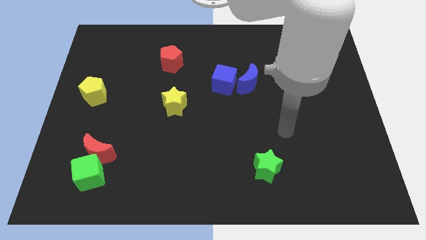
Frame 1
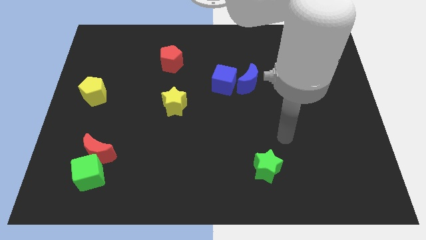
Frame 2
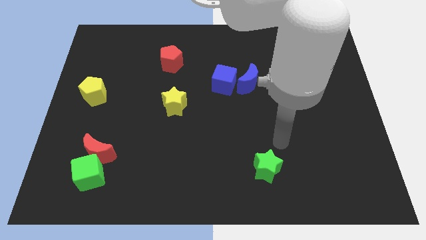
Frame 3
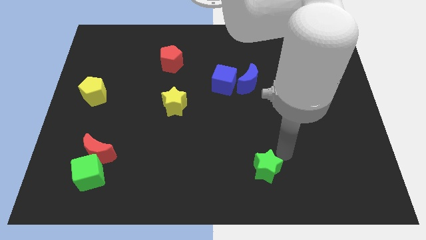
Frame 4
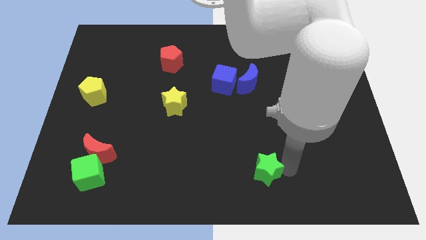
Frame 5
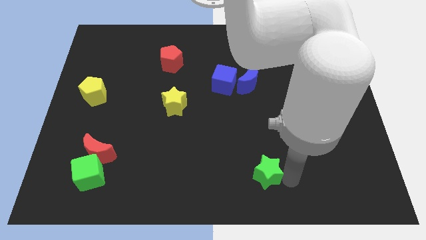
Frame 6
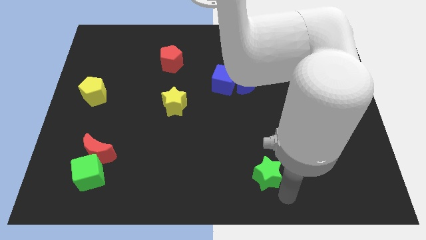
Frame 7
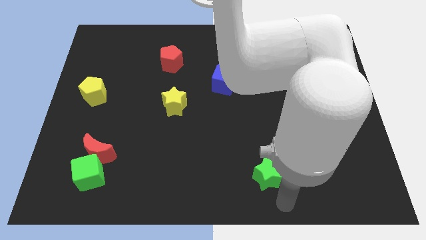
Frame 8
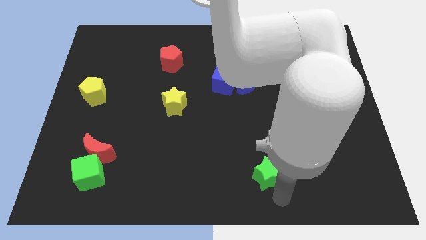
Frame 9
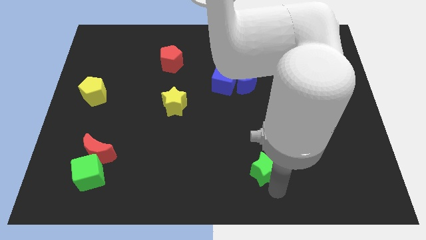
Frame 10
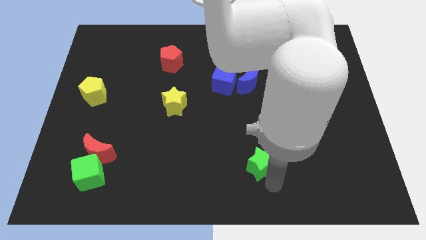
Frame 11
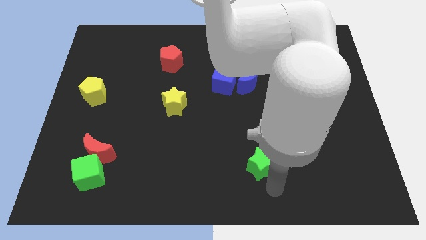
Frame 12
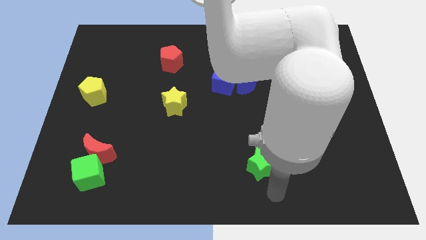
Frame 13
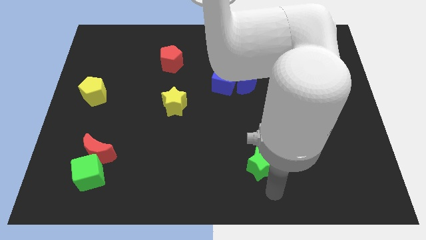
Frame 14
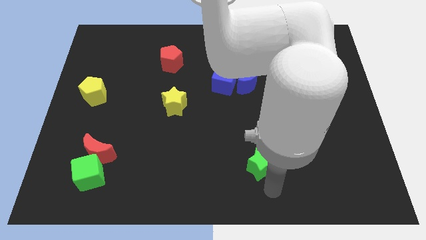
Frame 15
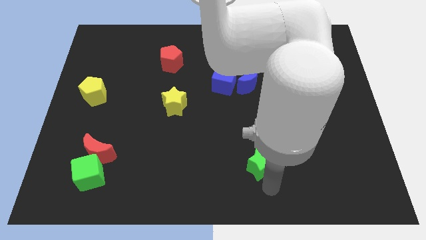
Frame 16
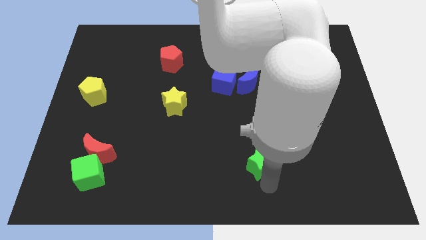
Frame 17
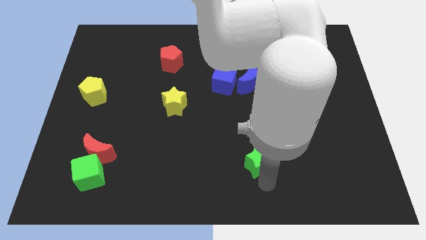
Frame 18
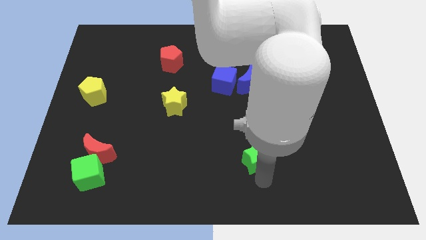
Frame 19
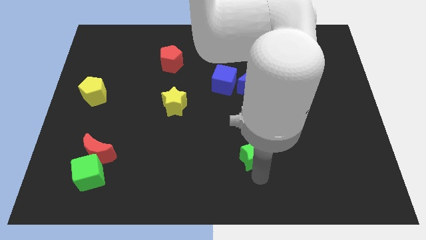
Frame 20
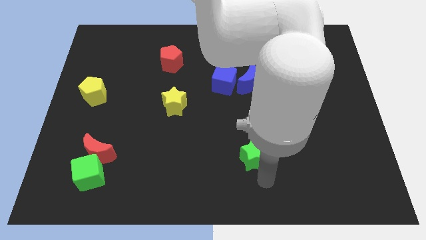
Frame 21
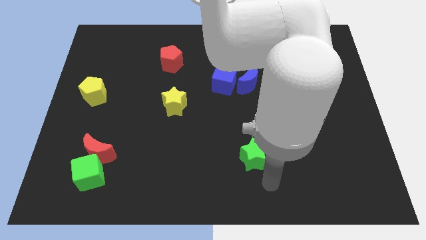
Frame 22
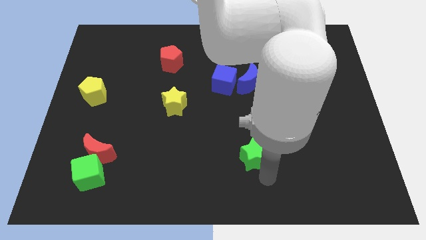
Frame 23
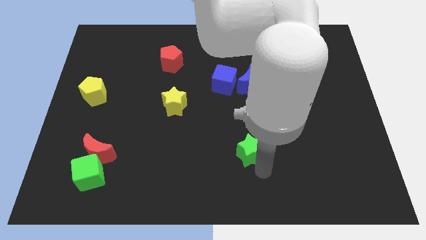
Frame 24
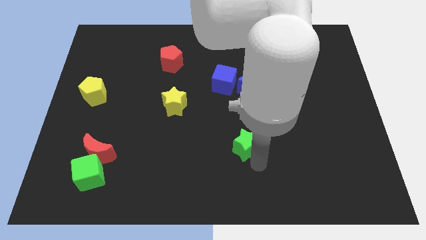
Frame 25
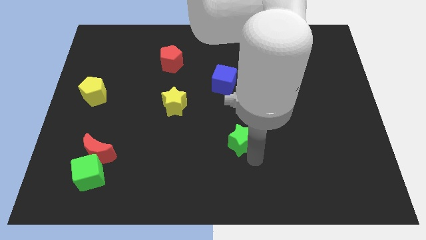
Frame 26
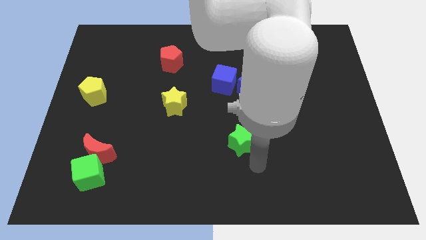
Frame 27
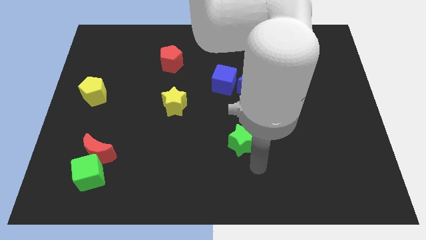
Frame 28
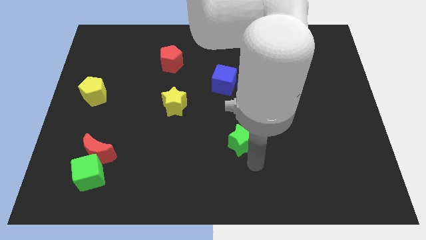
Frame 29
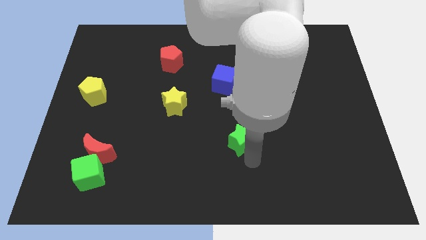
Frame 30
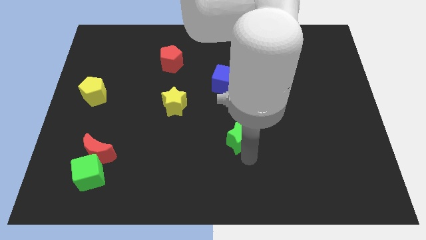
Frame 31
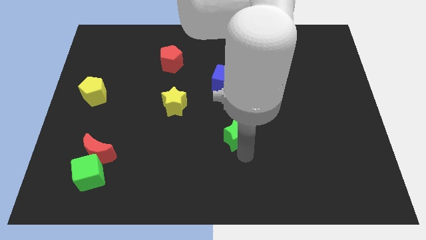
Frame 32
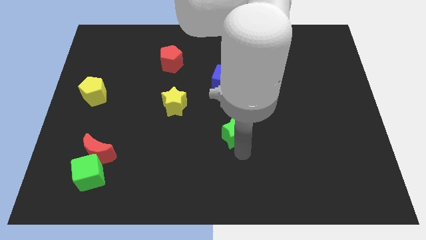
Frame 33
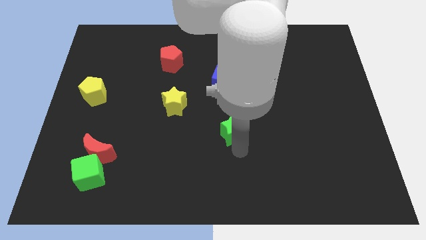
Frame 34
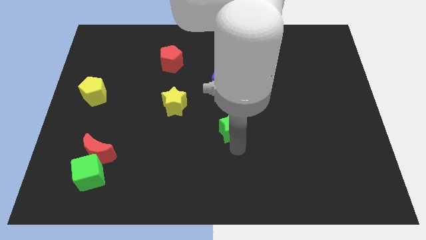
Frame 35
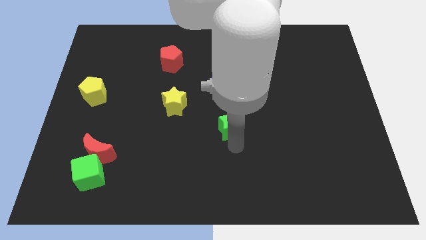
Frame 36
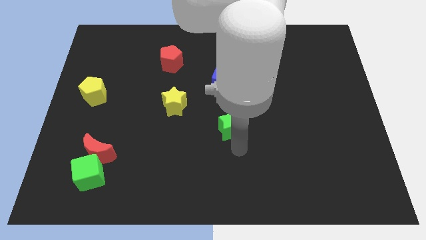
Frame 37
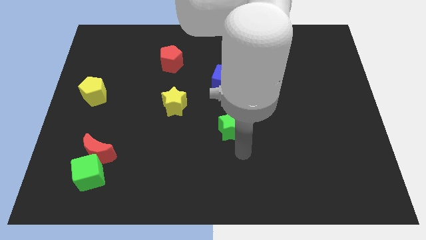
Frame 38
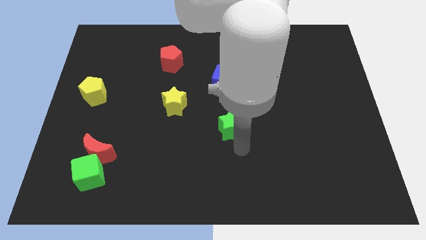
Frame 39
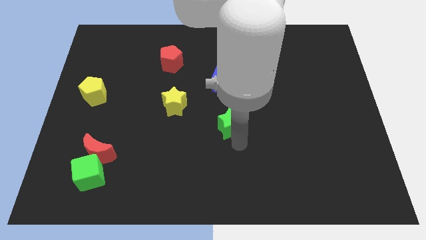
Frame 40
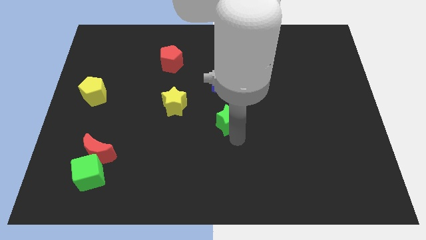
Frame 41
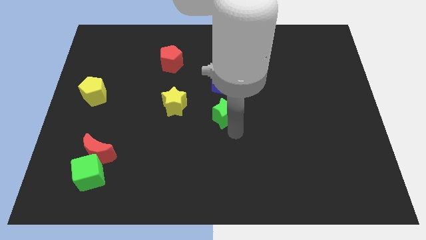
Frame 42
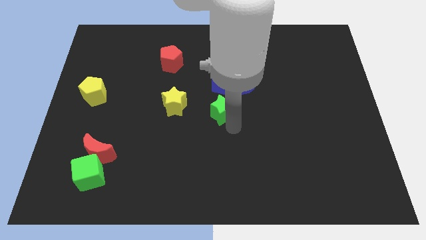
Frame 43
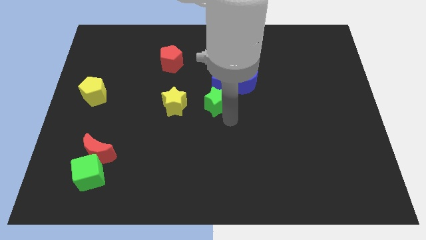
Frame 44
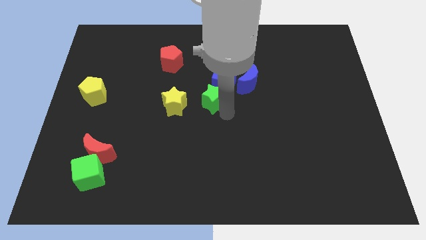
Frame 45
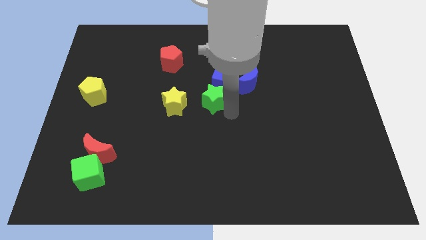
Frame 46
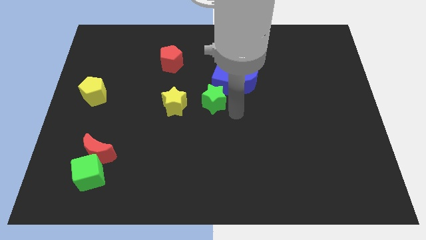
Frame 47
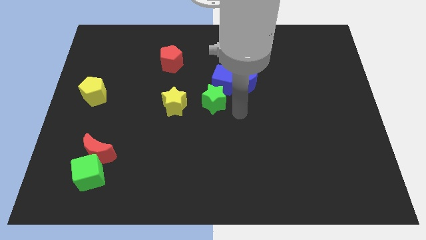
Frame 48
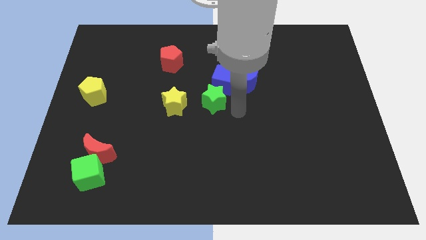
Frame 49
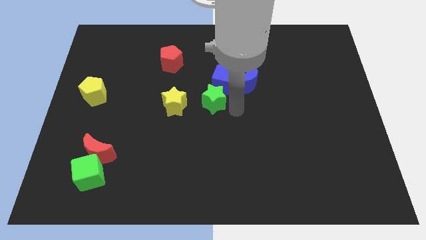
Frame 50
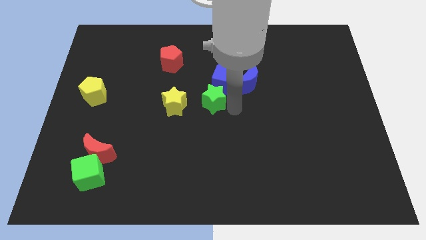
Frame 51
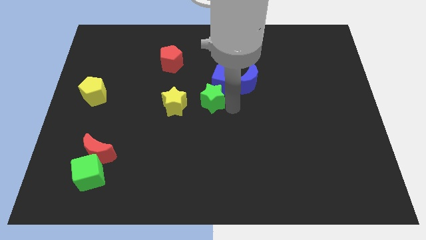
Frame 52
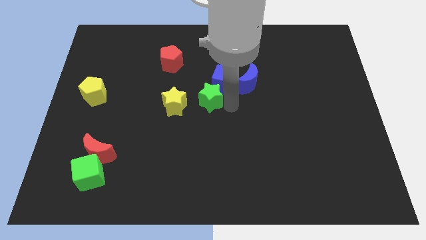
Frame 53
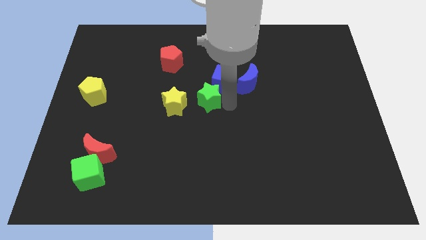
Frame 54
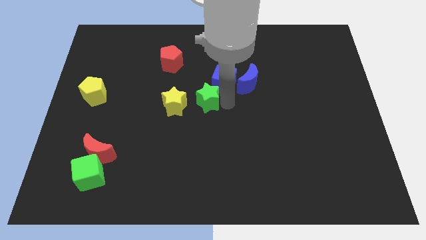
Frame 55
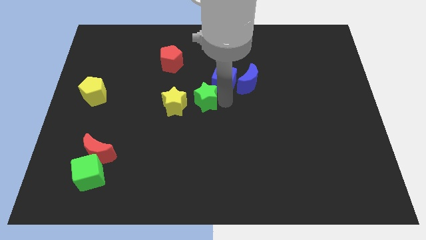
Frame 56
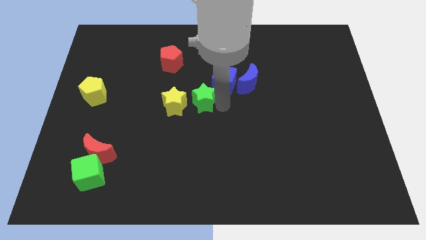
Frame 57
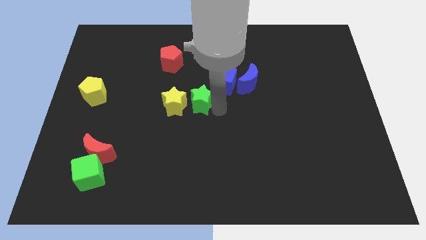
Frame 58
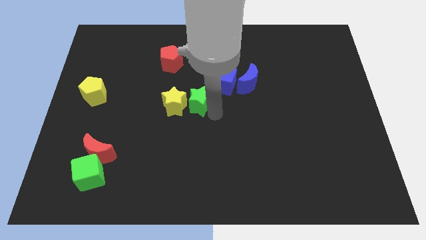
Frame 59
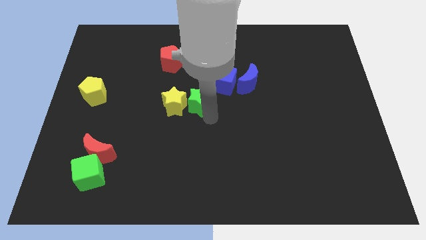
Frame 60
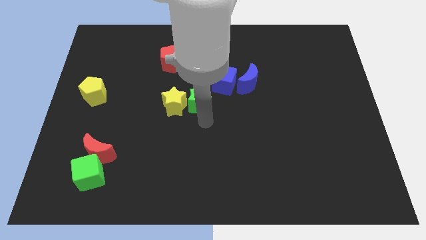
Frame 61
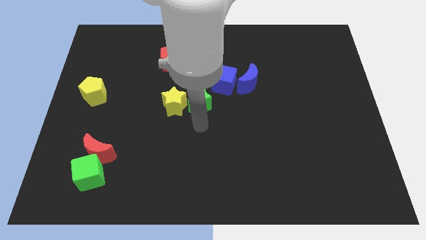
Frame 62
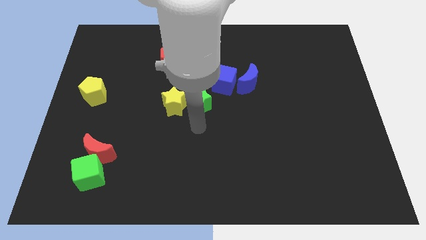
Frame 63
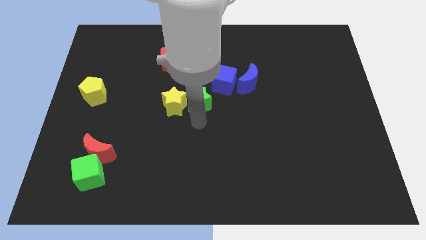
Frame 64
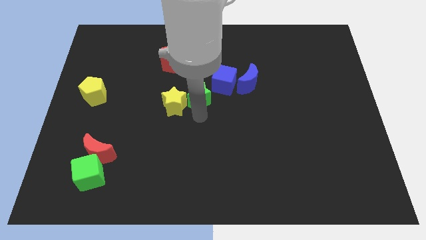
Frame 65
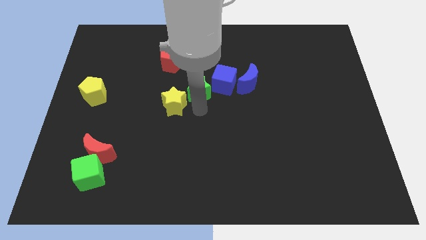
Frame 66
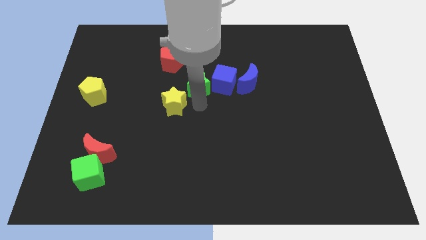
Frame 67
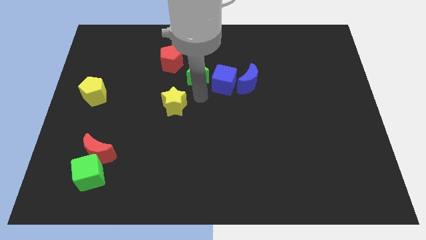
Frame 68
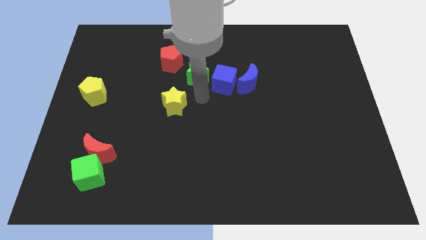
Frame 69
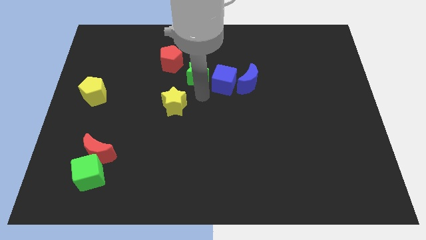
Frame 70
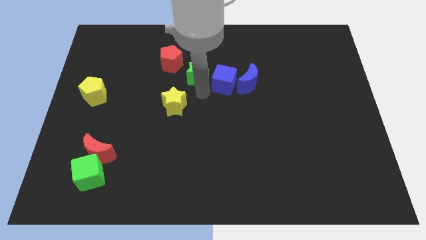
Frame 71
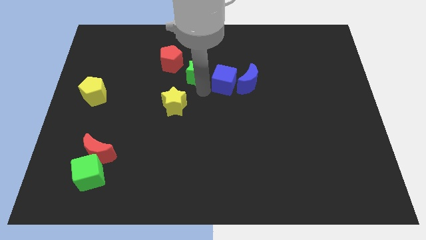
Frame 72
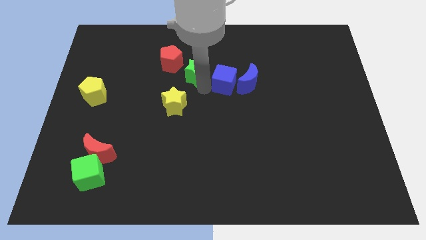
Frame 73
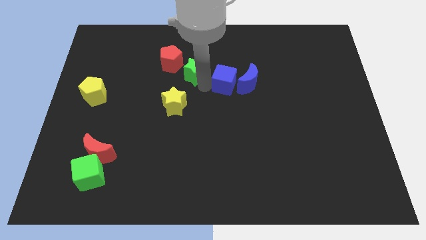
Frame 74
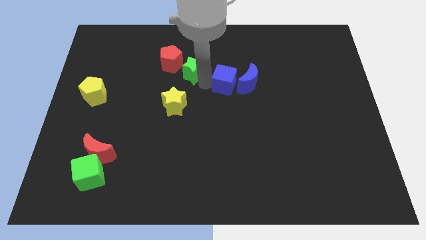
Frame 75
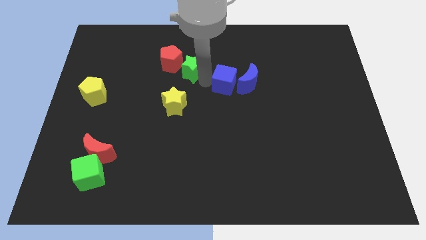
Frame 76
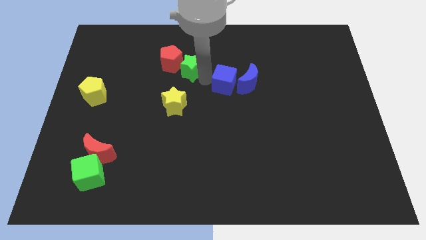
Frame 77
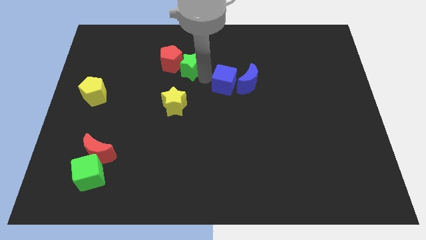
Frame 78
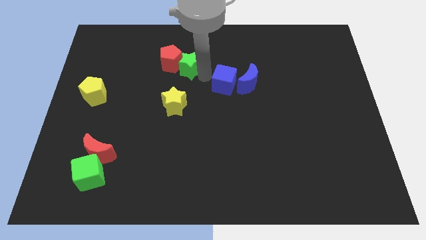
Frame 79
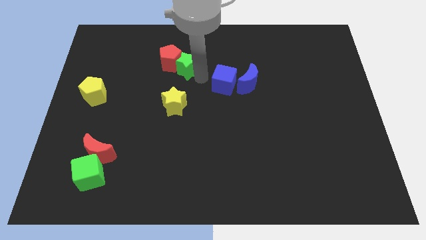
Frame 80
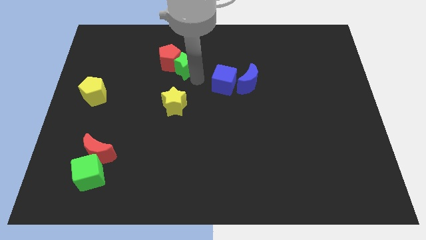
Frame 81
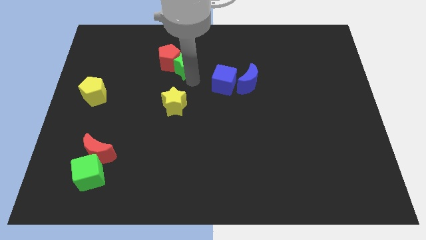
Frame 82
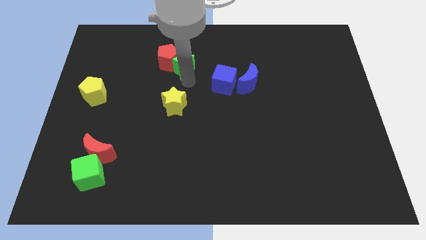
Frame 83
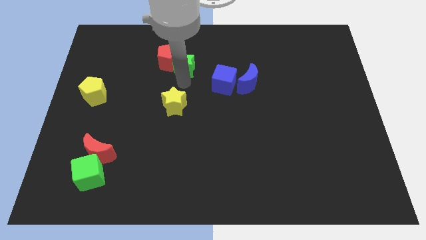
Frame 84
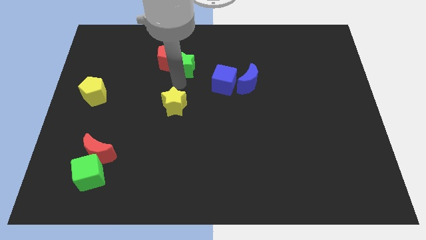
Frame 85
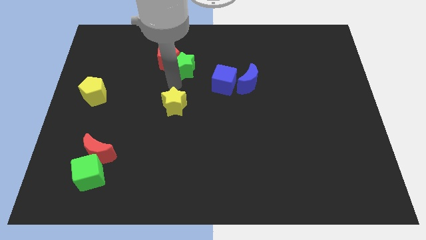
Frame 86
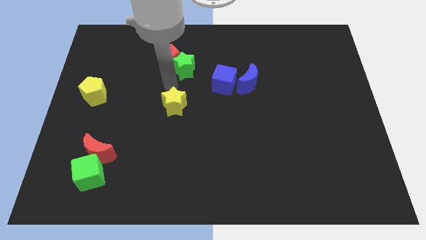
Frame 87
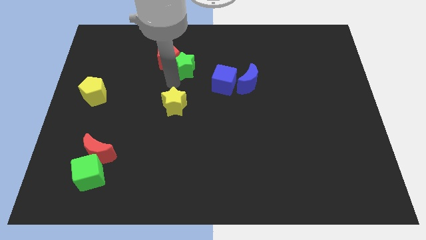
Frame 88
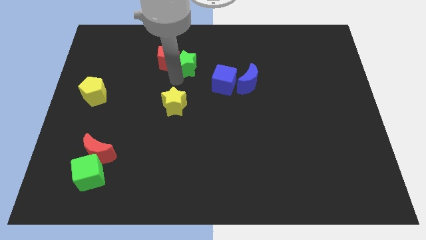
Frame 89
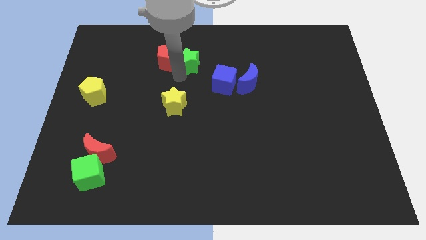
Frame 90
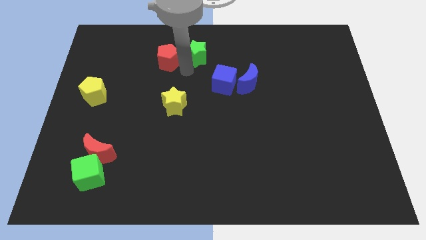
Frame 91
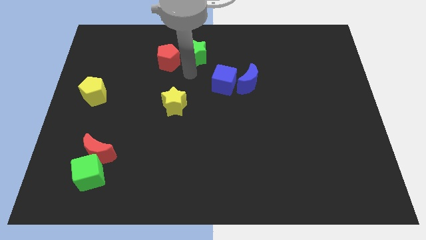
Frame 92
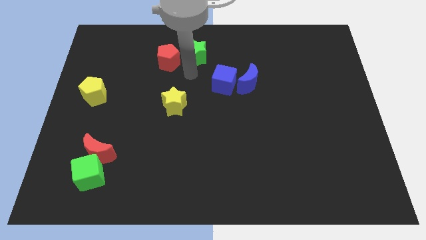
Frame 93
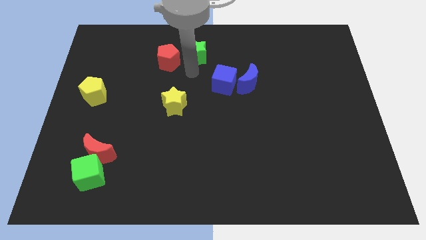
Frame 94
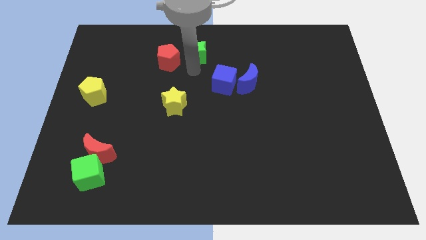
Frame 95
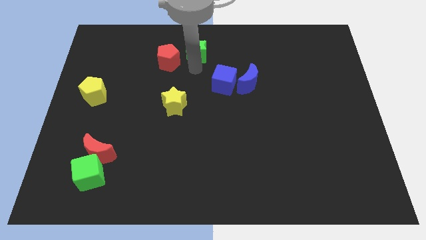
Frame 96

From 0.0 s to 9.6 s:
push the green star to the top side
